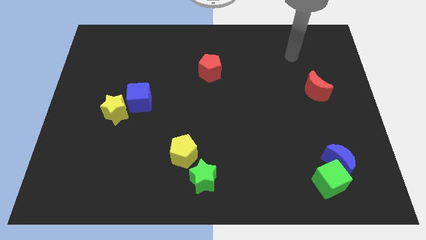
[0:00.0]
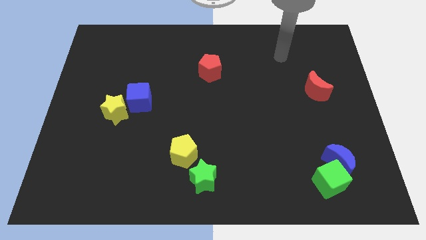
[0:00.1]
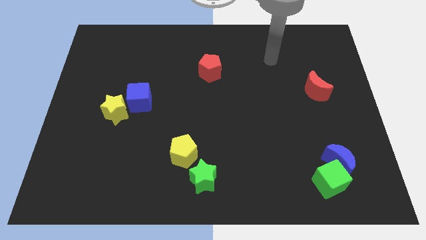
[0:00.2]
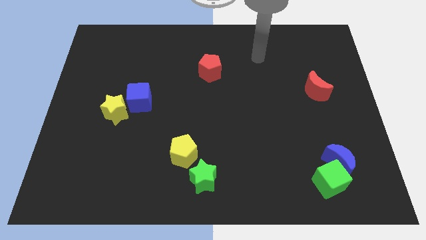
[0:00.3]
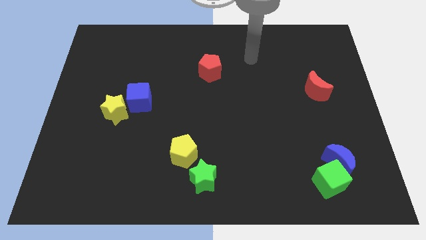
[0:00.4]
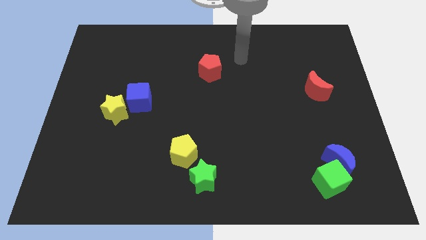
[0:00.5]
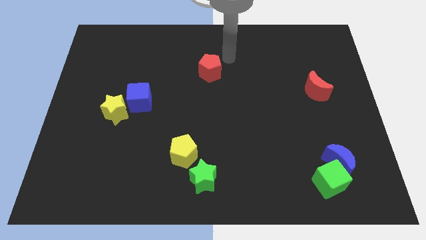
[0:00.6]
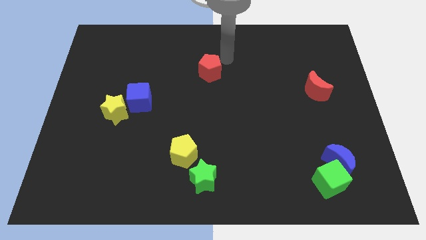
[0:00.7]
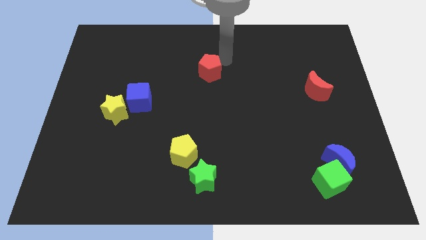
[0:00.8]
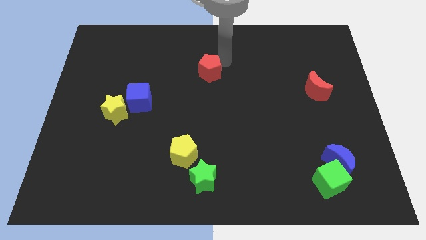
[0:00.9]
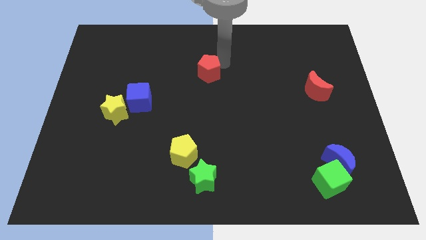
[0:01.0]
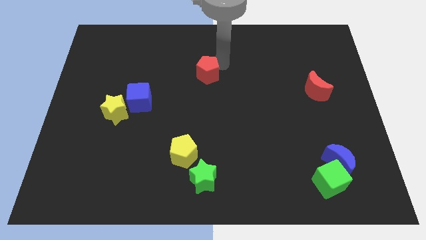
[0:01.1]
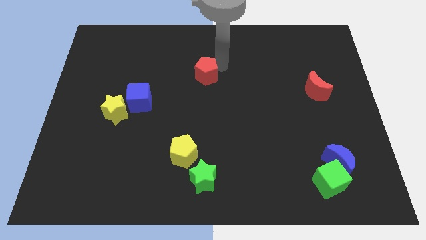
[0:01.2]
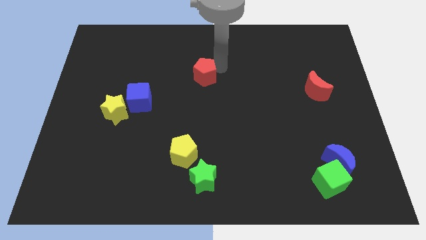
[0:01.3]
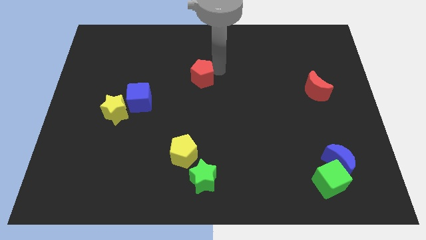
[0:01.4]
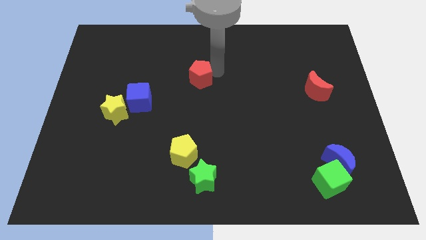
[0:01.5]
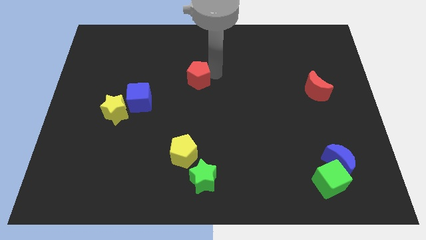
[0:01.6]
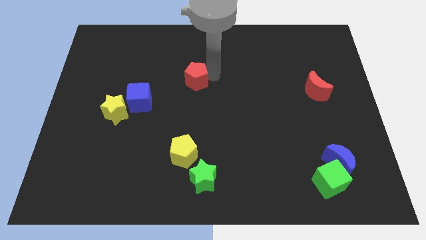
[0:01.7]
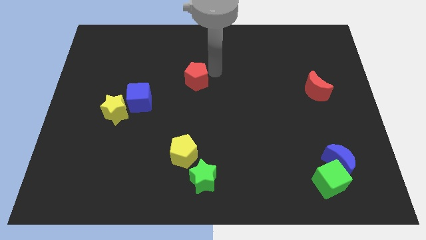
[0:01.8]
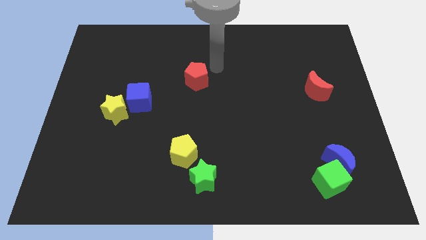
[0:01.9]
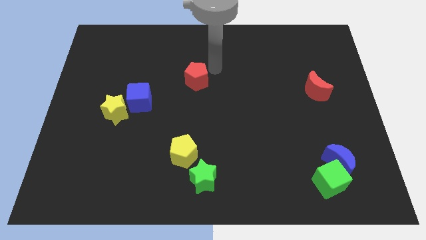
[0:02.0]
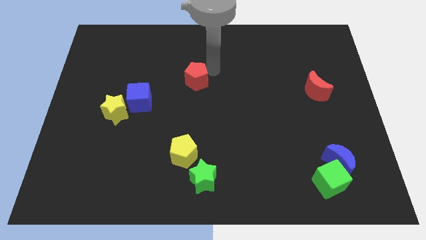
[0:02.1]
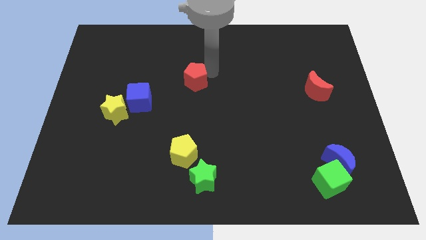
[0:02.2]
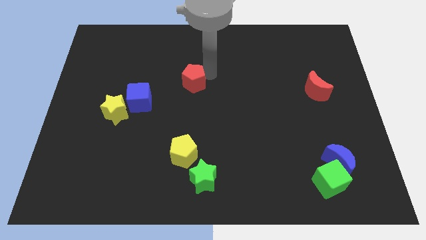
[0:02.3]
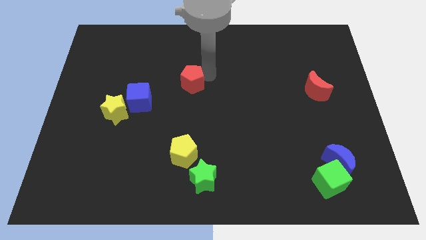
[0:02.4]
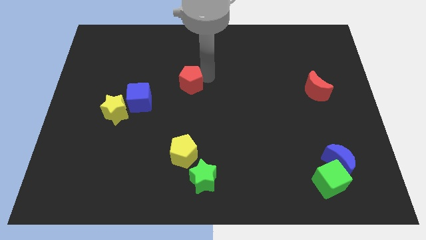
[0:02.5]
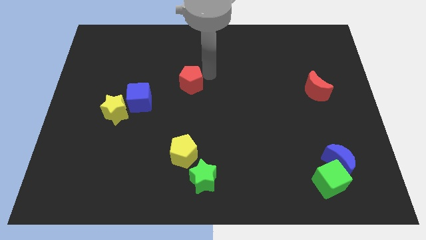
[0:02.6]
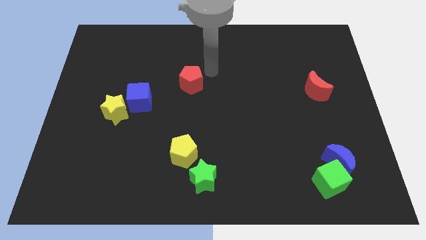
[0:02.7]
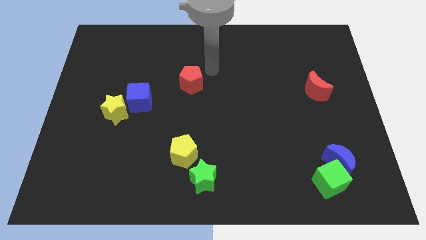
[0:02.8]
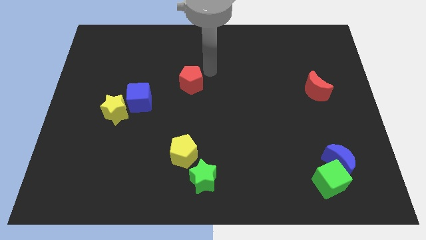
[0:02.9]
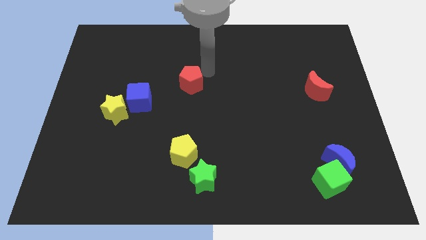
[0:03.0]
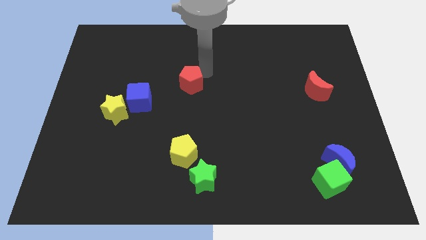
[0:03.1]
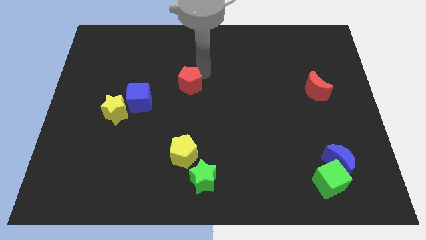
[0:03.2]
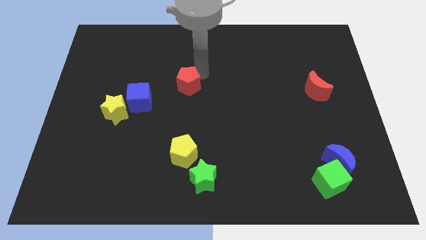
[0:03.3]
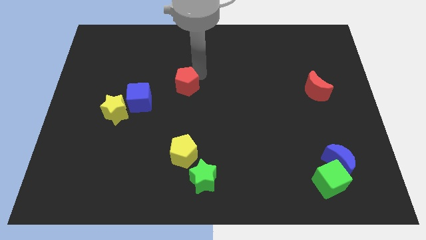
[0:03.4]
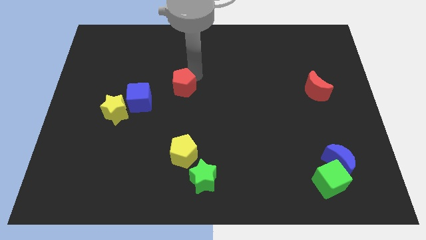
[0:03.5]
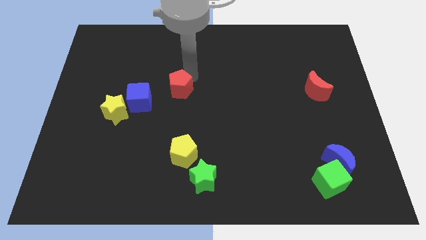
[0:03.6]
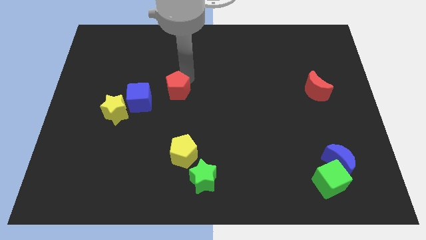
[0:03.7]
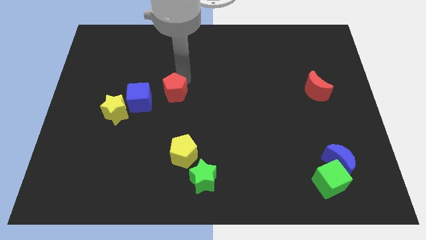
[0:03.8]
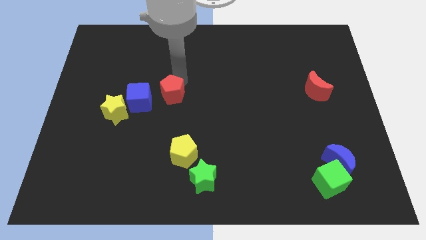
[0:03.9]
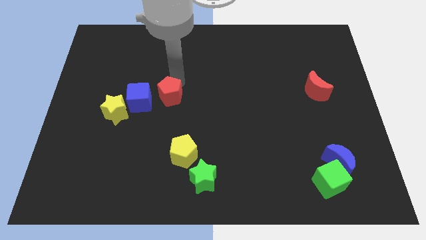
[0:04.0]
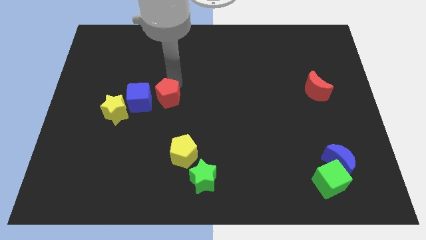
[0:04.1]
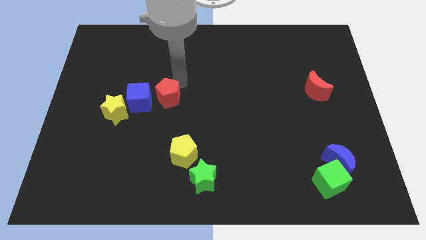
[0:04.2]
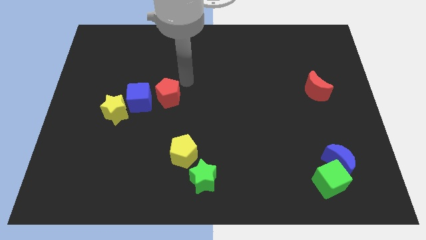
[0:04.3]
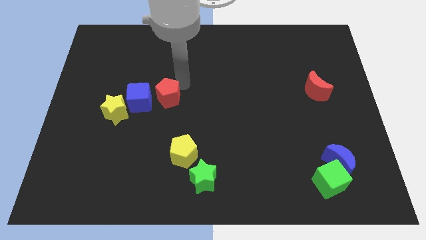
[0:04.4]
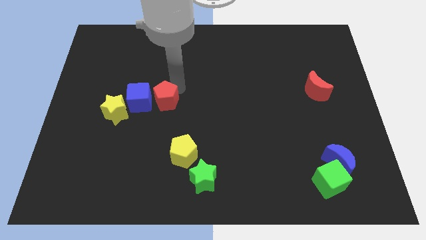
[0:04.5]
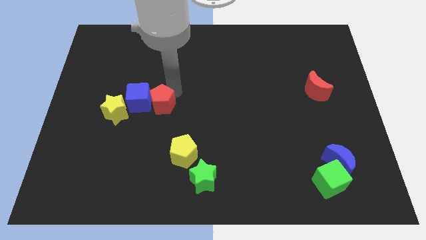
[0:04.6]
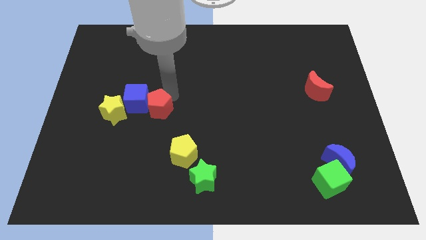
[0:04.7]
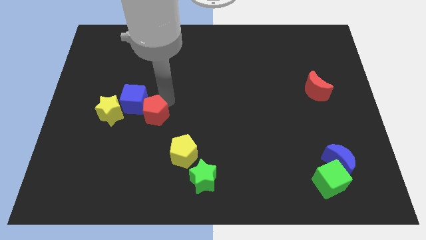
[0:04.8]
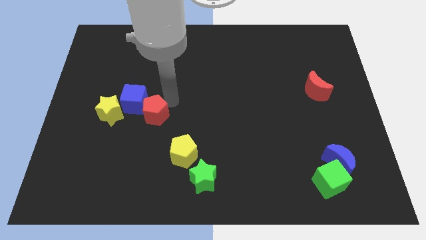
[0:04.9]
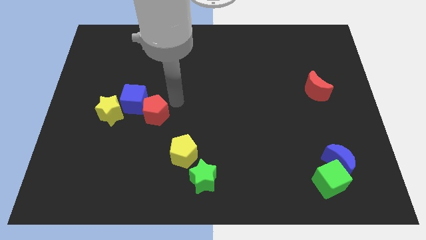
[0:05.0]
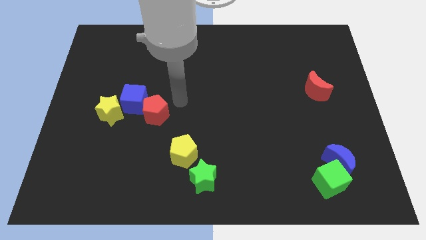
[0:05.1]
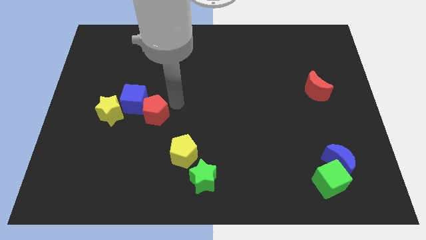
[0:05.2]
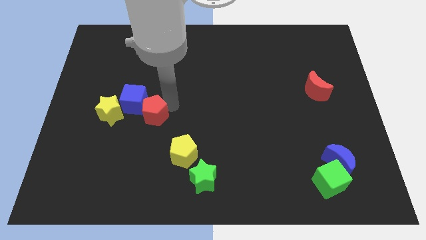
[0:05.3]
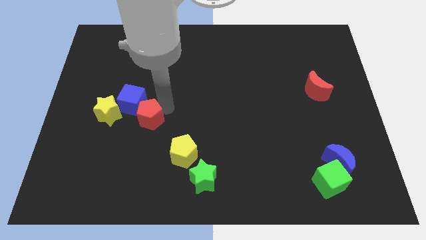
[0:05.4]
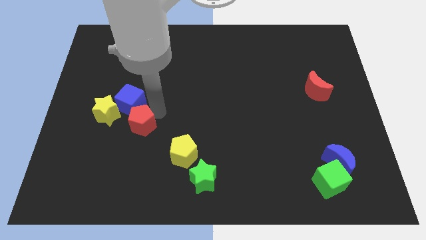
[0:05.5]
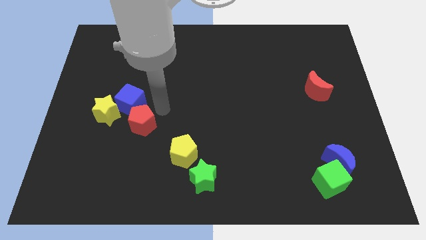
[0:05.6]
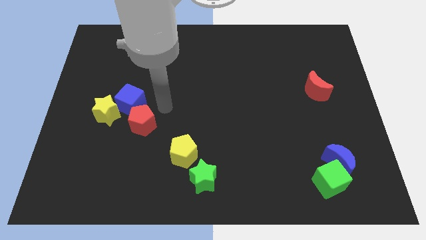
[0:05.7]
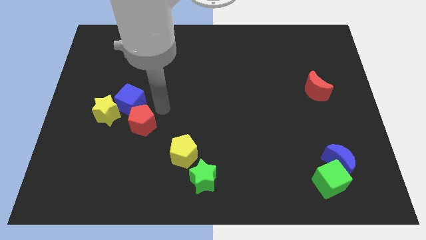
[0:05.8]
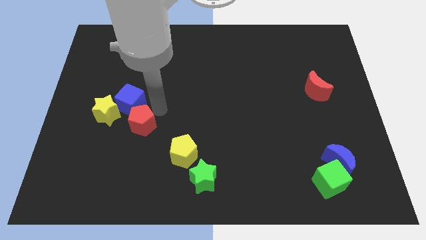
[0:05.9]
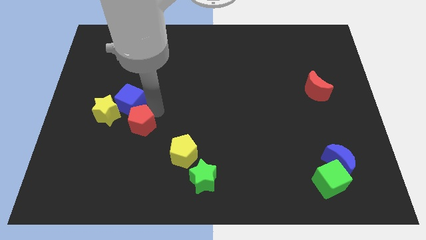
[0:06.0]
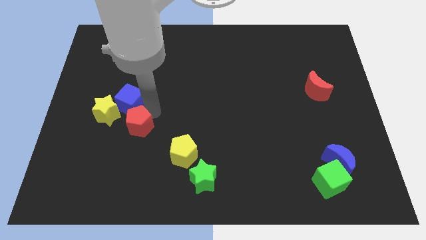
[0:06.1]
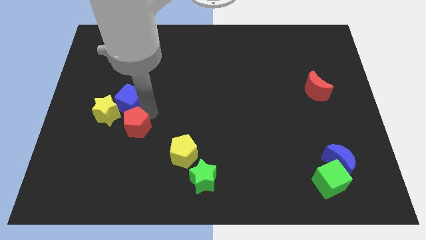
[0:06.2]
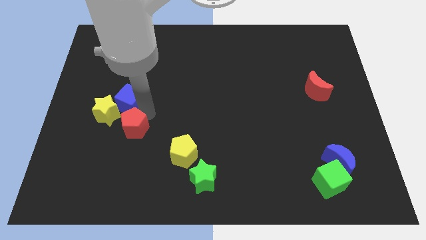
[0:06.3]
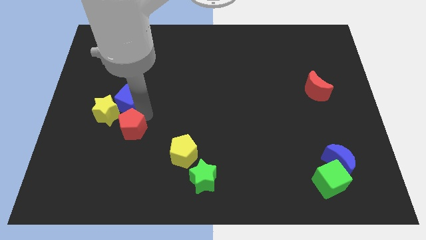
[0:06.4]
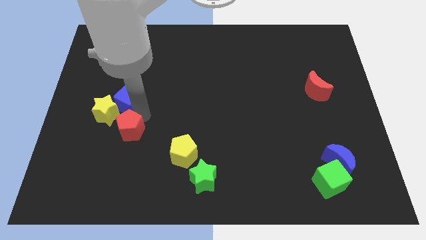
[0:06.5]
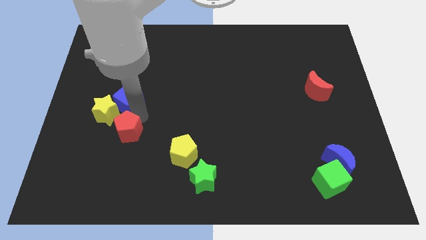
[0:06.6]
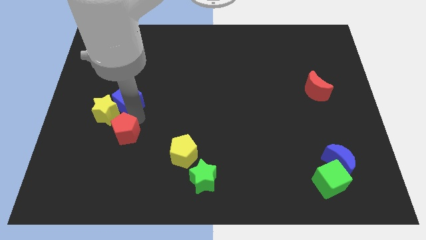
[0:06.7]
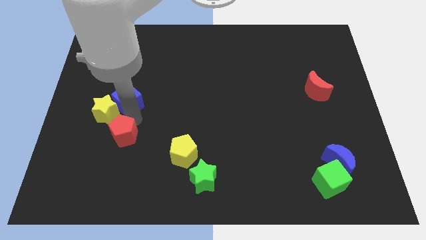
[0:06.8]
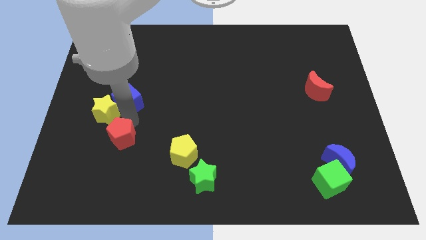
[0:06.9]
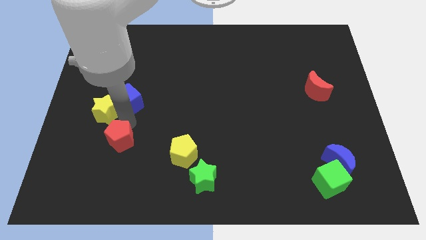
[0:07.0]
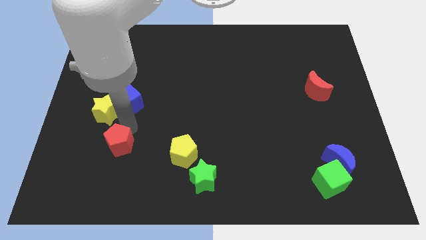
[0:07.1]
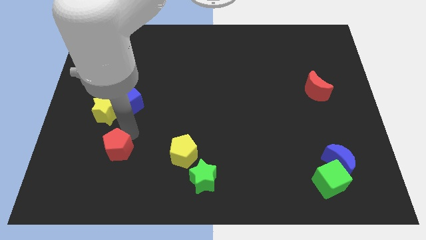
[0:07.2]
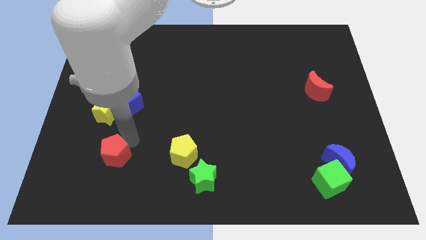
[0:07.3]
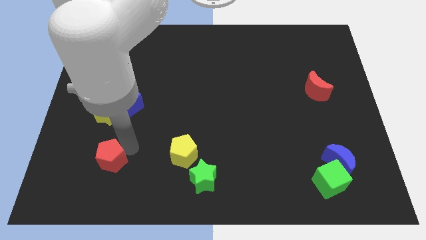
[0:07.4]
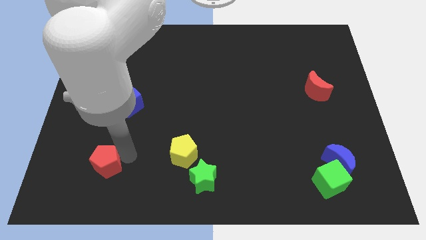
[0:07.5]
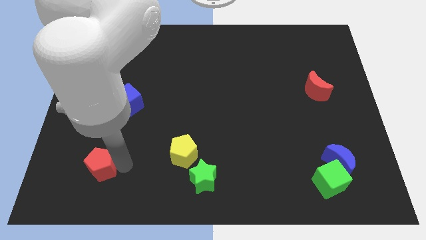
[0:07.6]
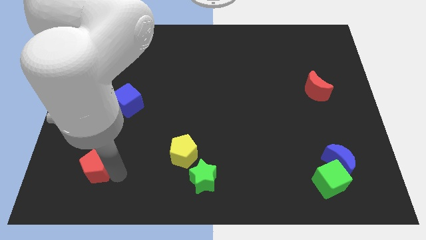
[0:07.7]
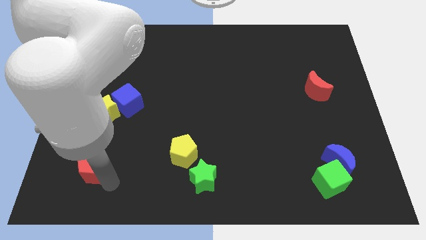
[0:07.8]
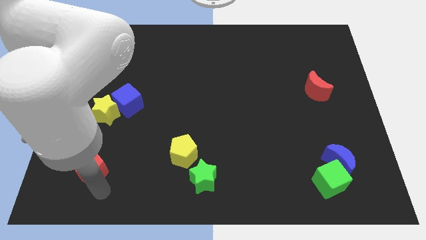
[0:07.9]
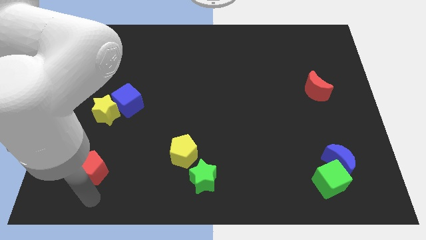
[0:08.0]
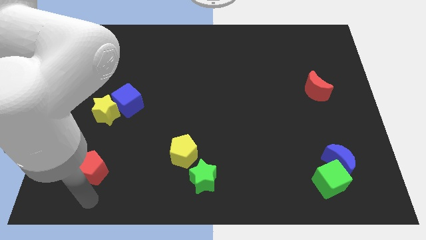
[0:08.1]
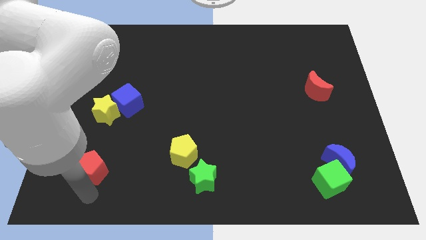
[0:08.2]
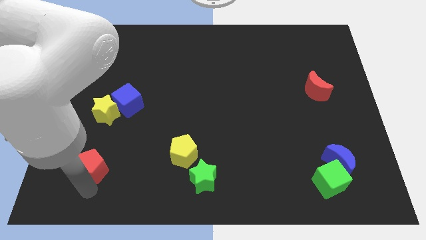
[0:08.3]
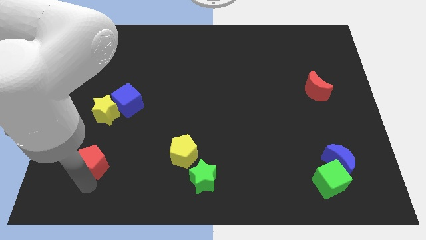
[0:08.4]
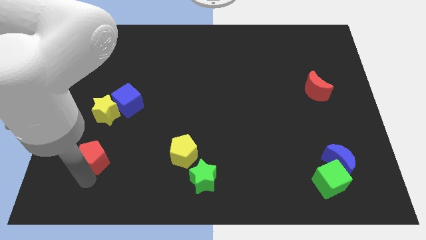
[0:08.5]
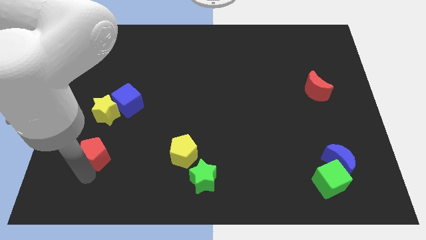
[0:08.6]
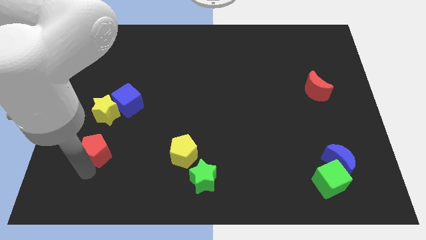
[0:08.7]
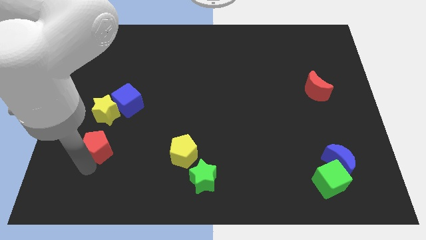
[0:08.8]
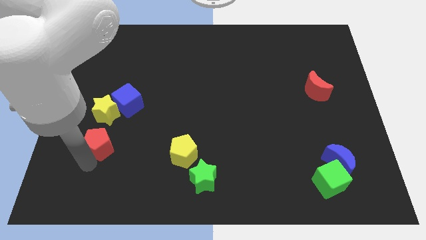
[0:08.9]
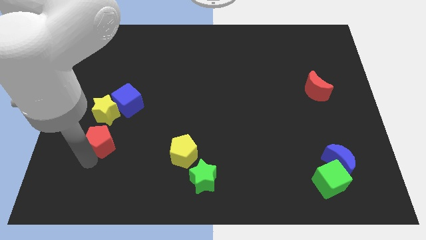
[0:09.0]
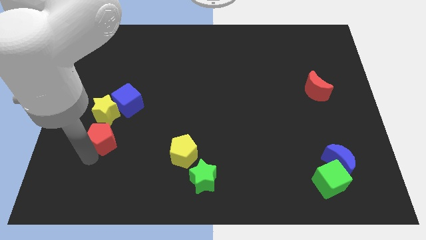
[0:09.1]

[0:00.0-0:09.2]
put the red pentagon to the bottom left of the blue cube
